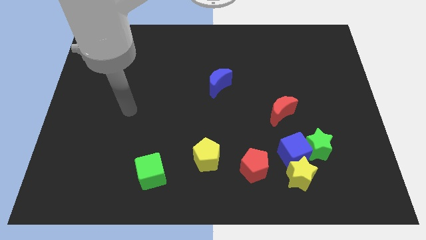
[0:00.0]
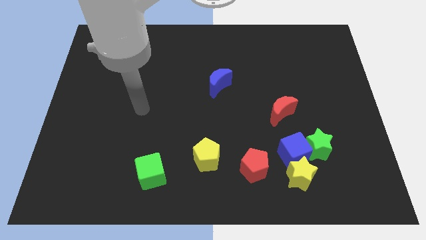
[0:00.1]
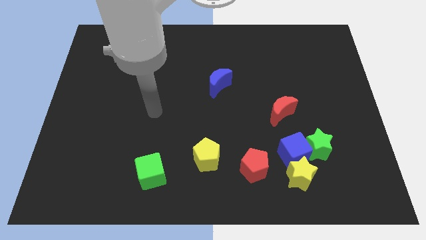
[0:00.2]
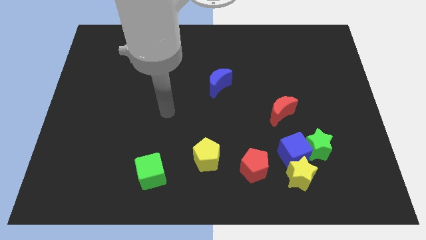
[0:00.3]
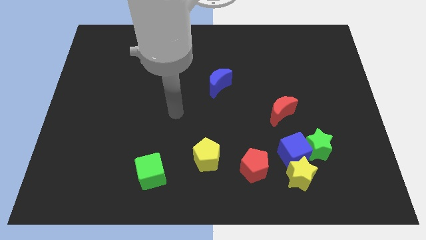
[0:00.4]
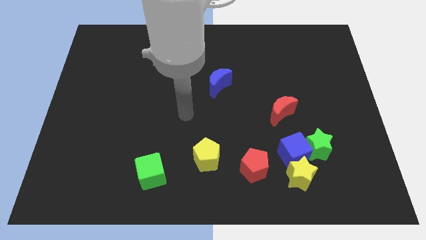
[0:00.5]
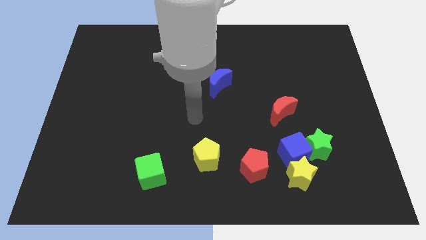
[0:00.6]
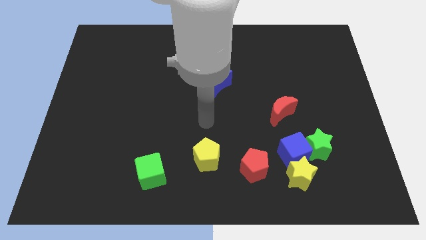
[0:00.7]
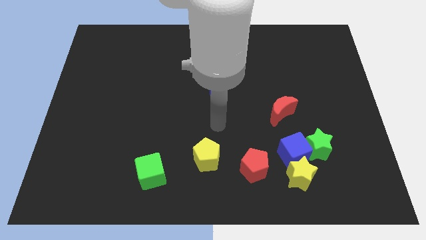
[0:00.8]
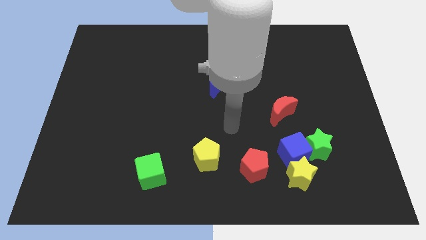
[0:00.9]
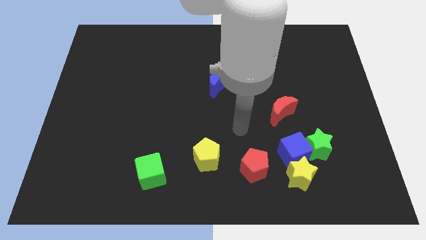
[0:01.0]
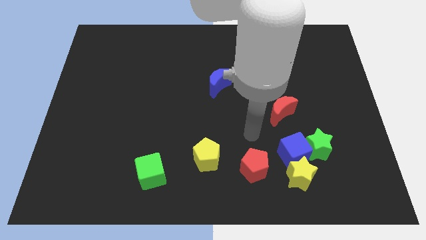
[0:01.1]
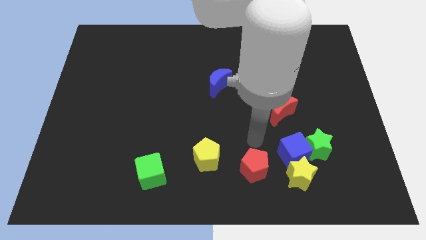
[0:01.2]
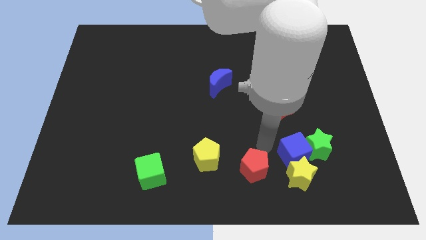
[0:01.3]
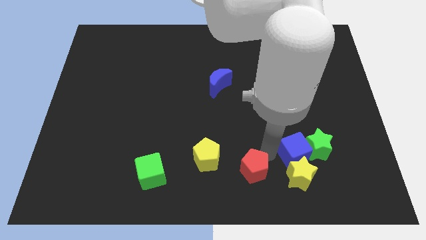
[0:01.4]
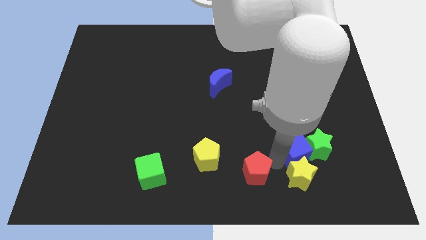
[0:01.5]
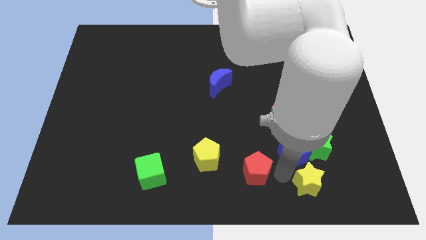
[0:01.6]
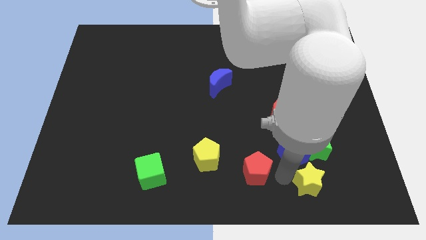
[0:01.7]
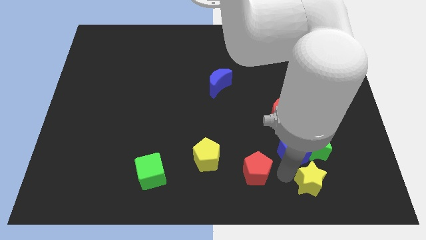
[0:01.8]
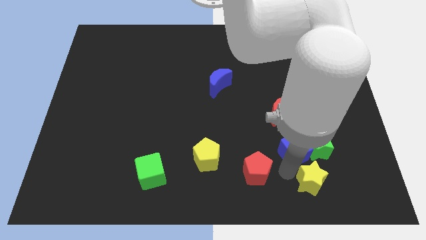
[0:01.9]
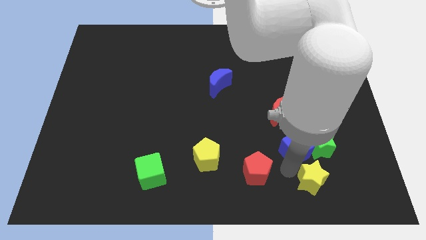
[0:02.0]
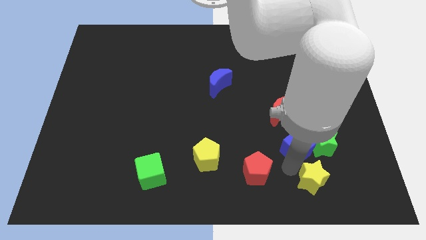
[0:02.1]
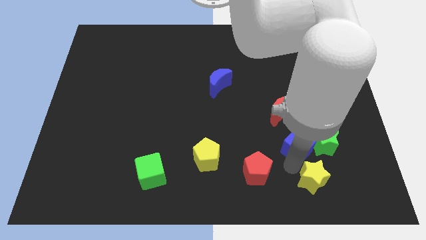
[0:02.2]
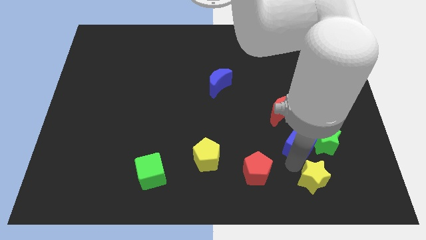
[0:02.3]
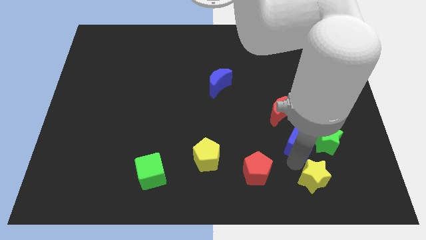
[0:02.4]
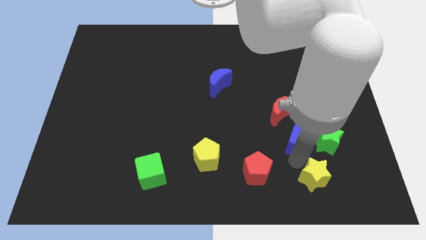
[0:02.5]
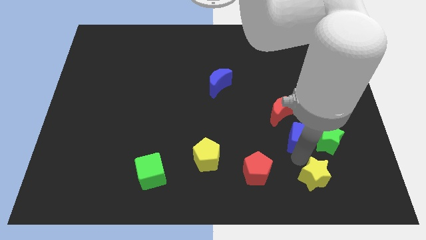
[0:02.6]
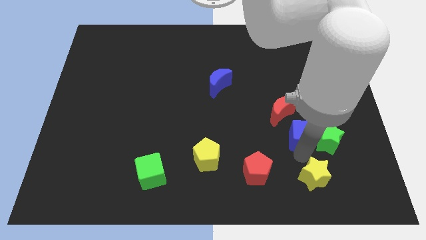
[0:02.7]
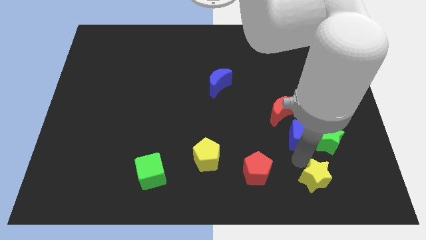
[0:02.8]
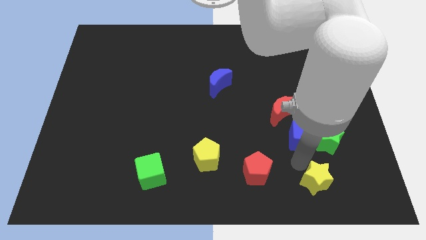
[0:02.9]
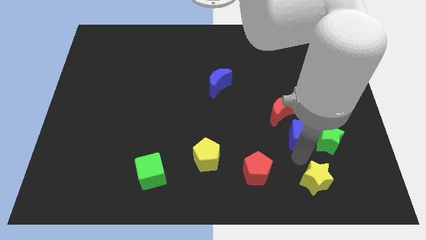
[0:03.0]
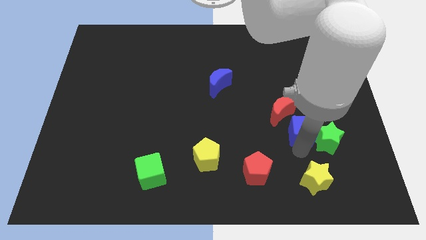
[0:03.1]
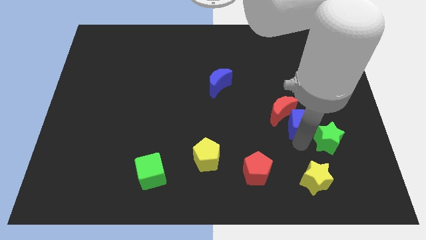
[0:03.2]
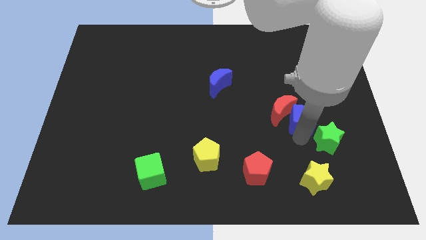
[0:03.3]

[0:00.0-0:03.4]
separate the blue cube from the yellow star, green star, and red pentagon

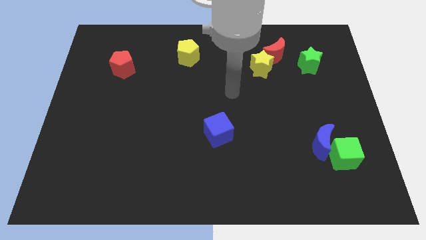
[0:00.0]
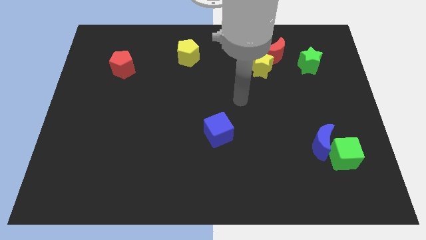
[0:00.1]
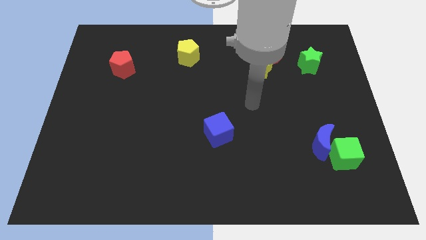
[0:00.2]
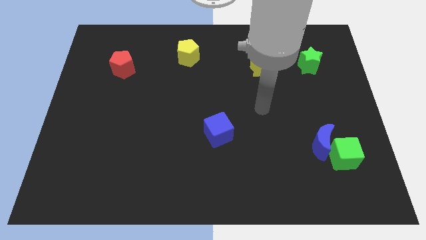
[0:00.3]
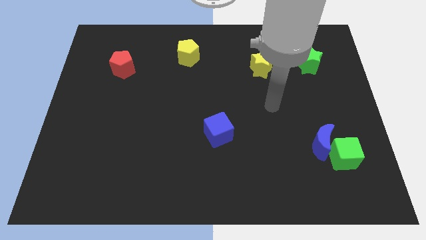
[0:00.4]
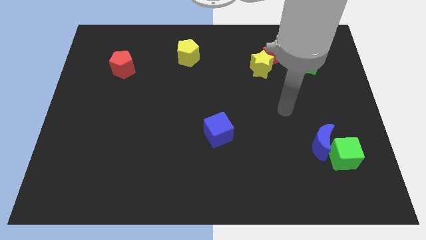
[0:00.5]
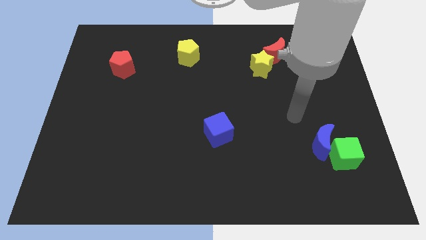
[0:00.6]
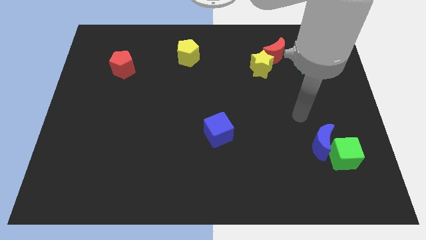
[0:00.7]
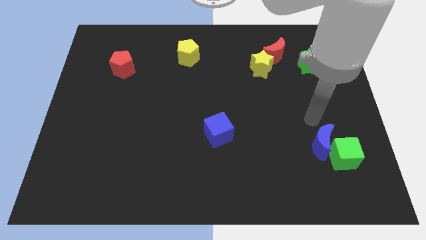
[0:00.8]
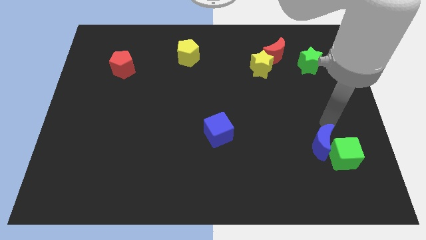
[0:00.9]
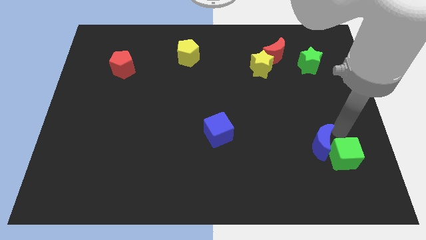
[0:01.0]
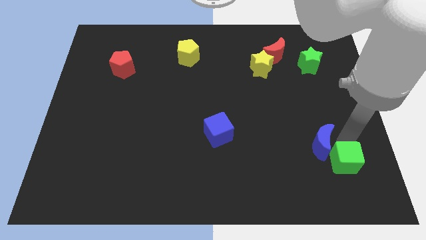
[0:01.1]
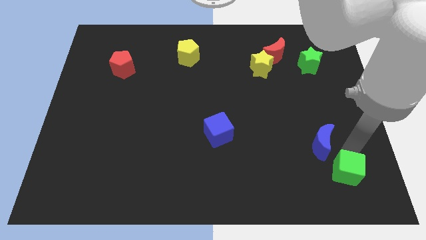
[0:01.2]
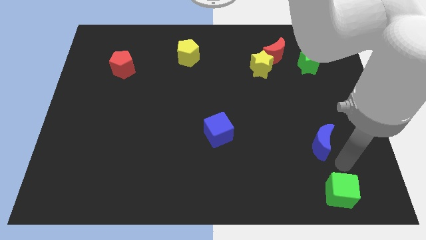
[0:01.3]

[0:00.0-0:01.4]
move the blue moon away from the green cube

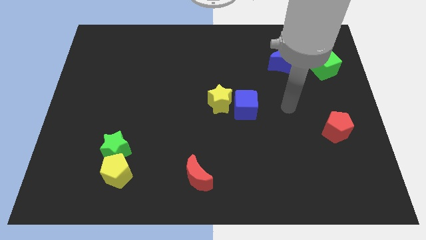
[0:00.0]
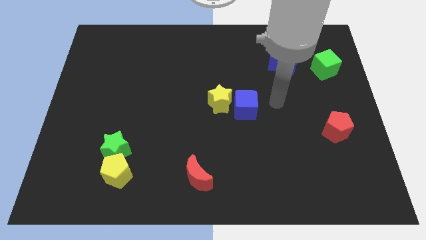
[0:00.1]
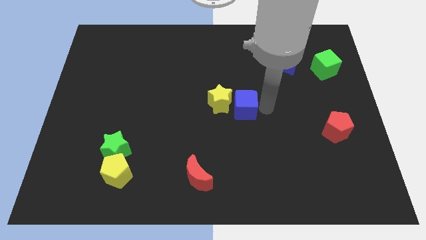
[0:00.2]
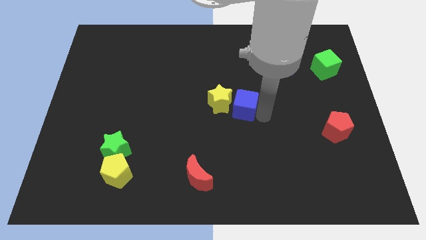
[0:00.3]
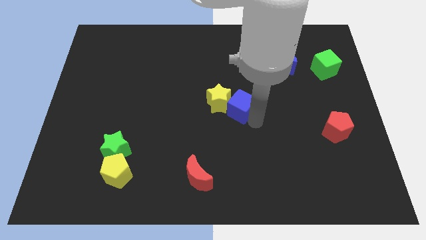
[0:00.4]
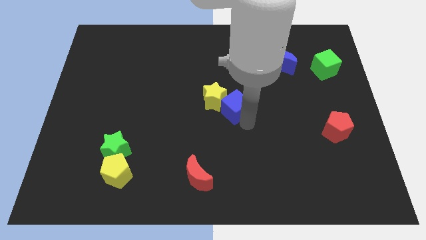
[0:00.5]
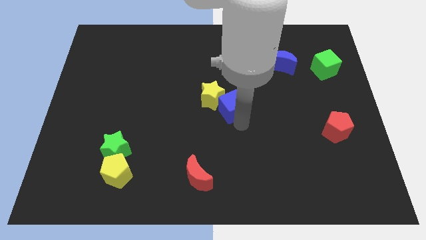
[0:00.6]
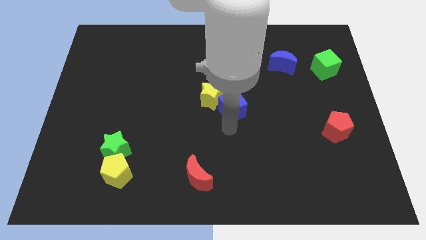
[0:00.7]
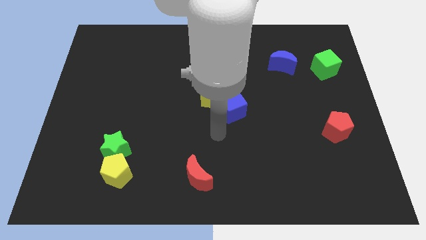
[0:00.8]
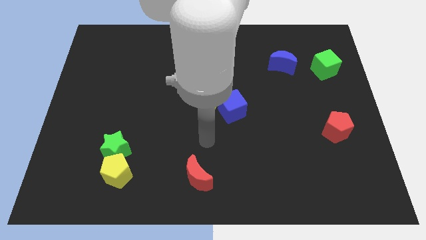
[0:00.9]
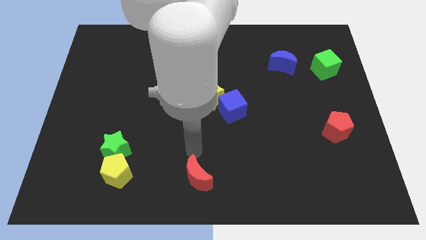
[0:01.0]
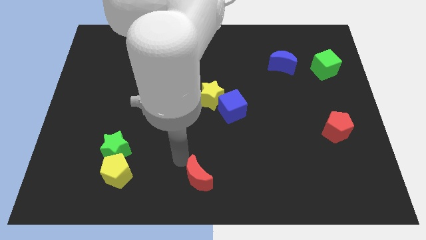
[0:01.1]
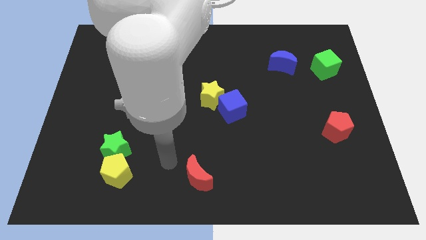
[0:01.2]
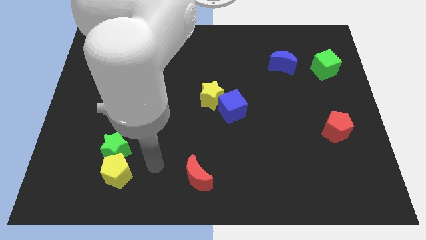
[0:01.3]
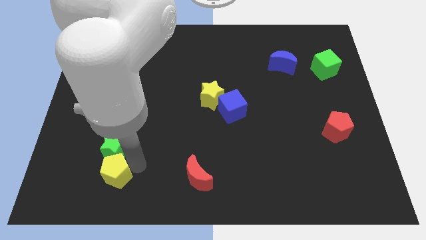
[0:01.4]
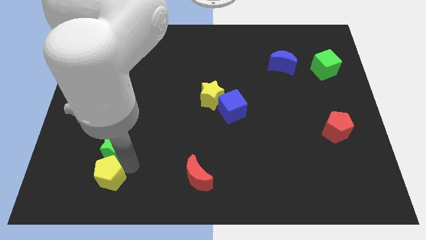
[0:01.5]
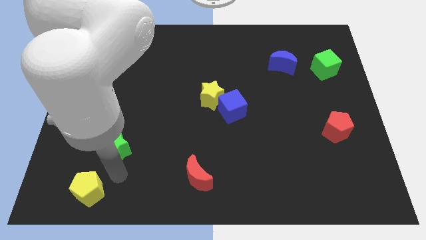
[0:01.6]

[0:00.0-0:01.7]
separate the green star from the yellow pentagon

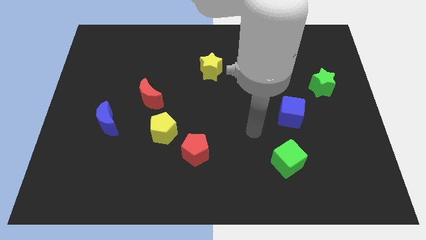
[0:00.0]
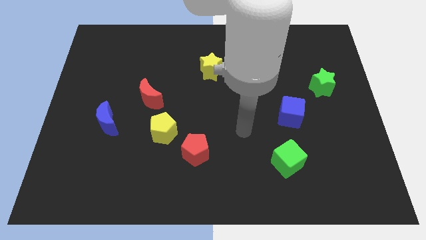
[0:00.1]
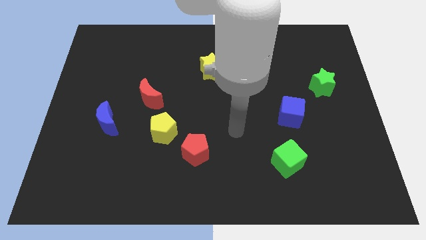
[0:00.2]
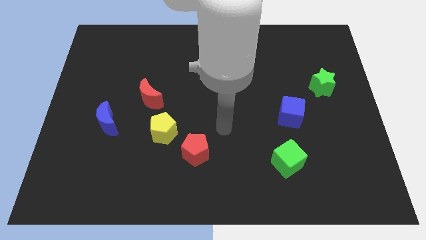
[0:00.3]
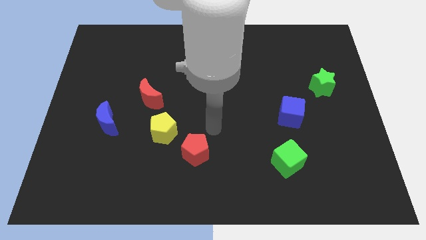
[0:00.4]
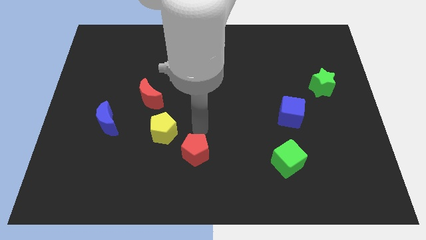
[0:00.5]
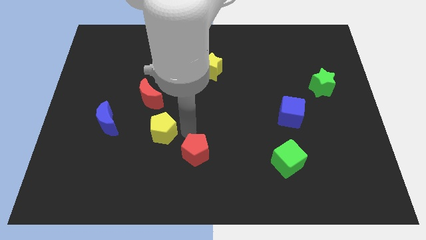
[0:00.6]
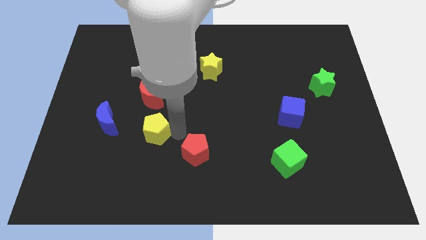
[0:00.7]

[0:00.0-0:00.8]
move the red pentagon away from the yellow pentagon

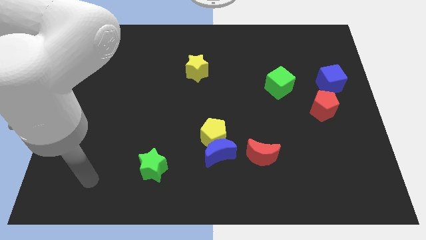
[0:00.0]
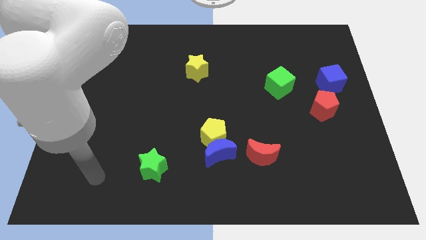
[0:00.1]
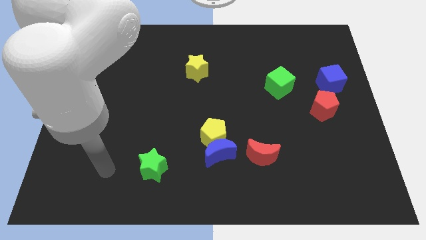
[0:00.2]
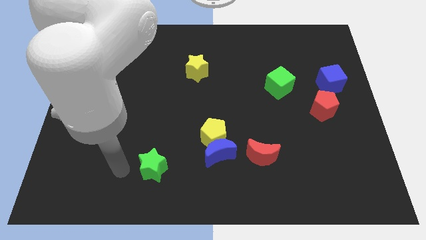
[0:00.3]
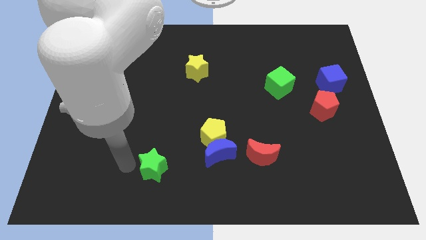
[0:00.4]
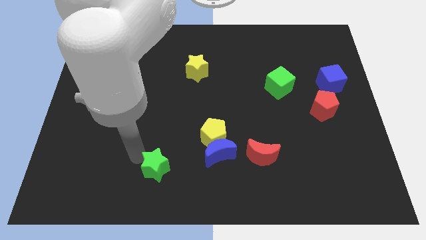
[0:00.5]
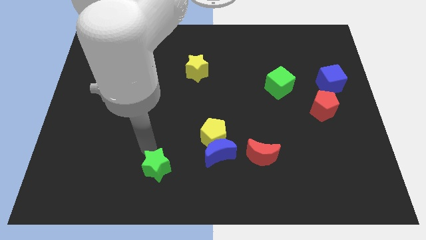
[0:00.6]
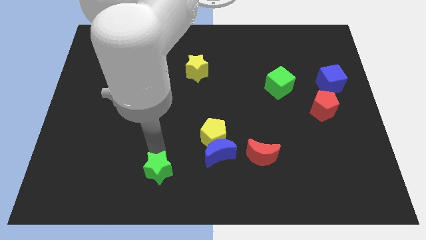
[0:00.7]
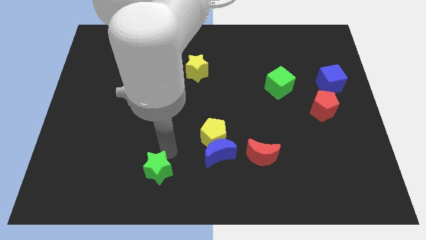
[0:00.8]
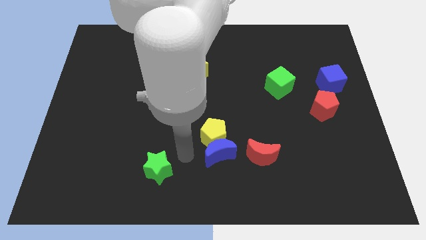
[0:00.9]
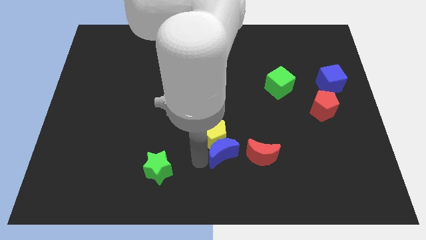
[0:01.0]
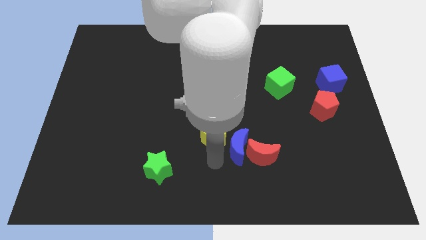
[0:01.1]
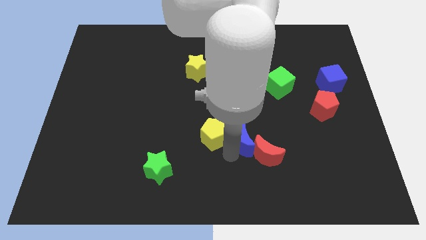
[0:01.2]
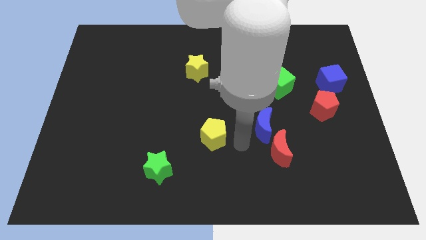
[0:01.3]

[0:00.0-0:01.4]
move the yellow pentagon away from the blue moon

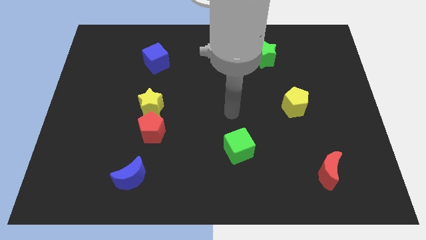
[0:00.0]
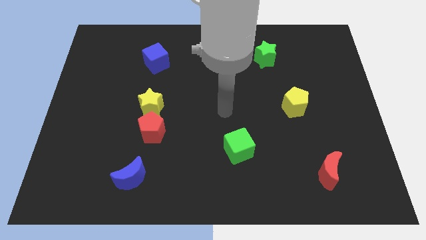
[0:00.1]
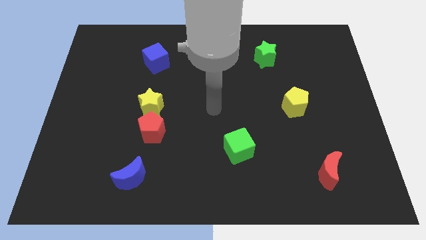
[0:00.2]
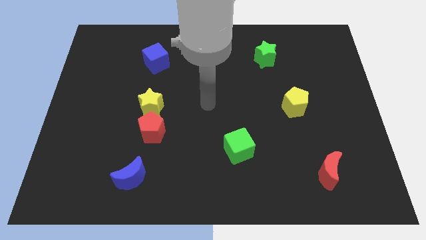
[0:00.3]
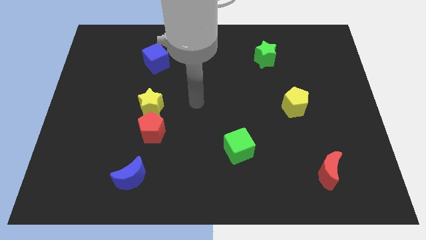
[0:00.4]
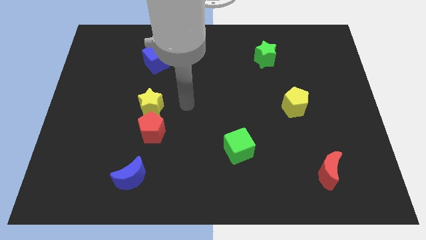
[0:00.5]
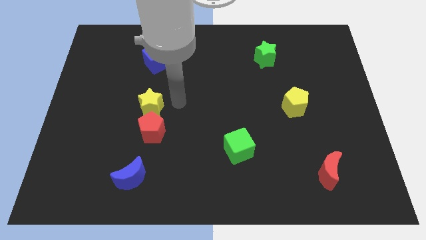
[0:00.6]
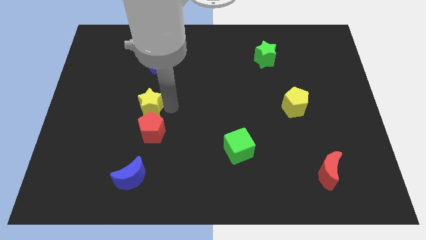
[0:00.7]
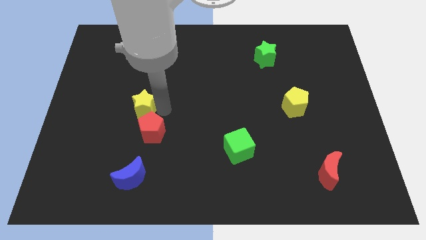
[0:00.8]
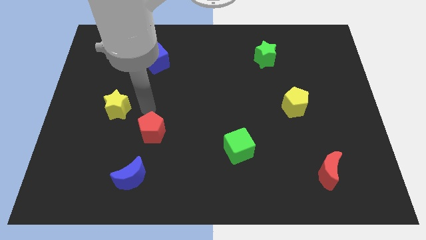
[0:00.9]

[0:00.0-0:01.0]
move the red pentagon away from the yellow star
